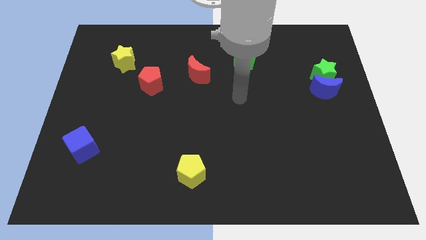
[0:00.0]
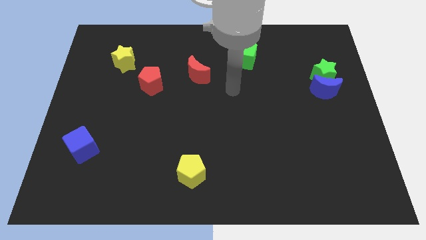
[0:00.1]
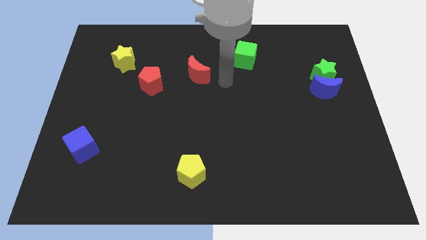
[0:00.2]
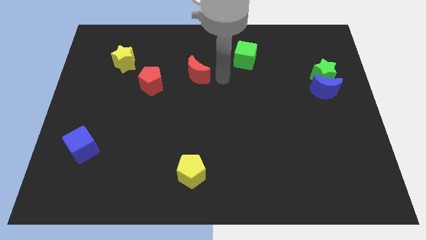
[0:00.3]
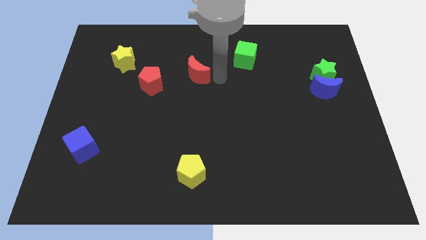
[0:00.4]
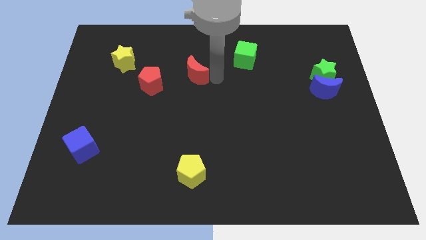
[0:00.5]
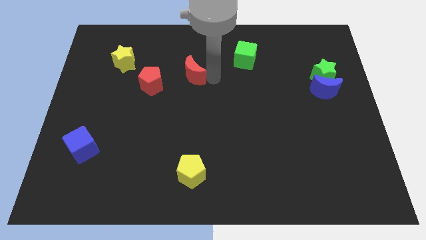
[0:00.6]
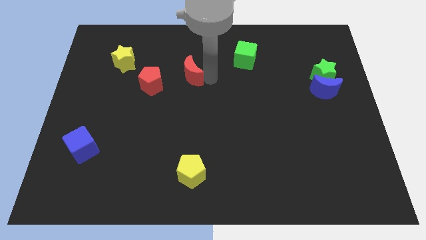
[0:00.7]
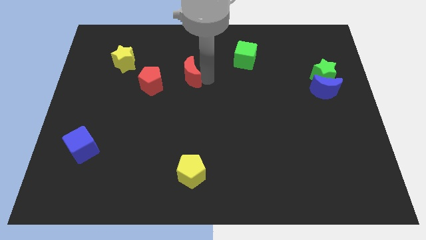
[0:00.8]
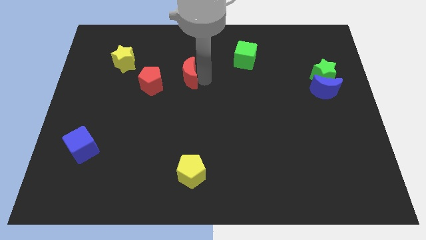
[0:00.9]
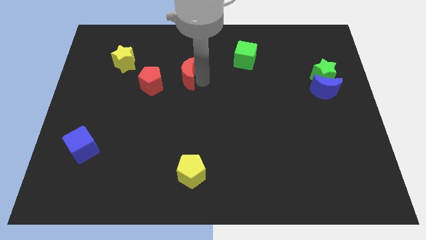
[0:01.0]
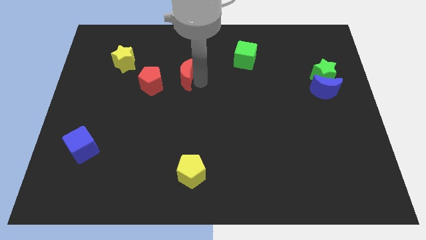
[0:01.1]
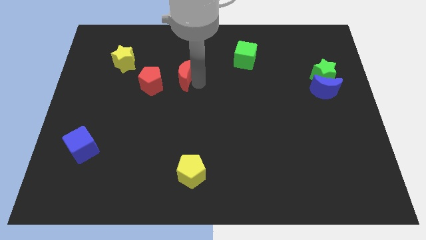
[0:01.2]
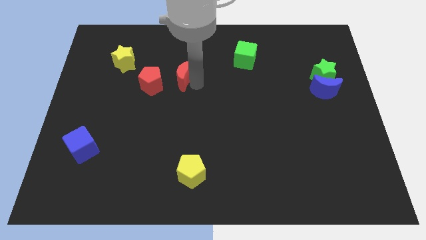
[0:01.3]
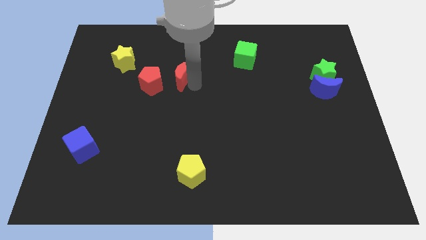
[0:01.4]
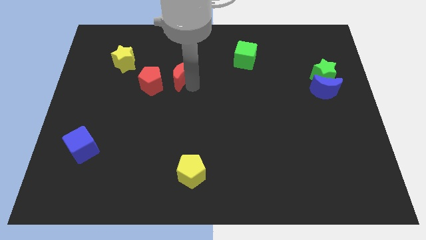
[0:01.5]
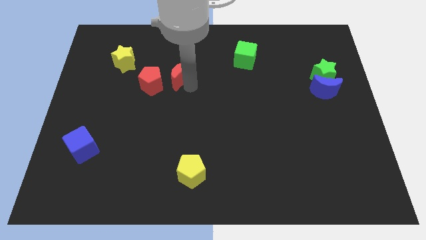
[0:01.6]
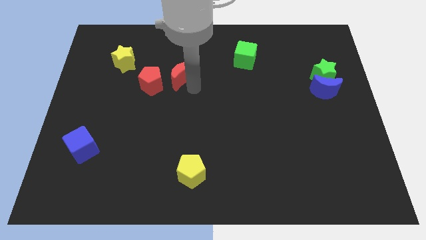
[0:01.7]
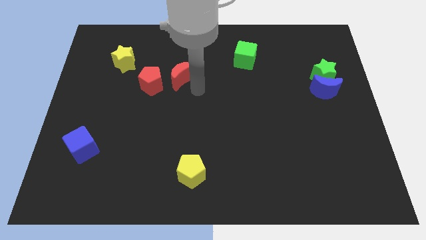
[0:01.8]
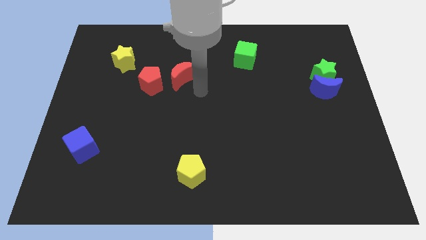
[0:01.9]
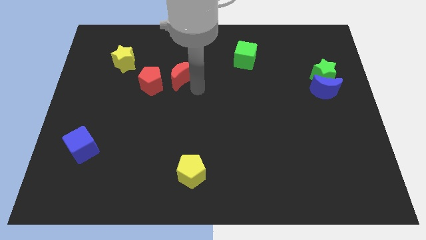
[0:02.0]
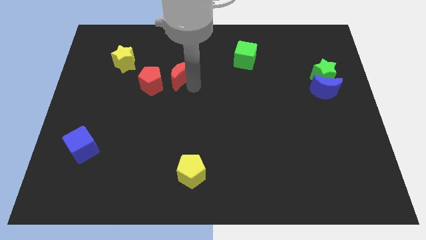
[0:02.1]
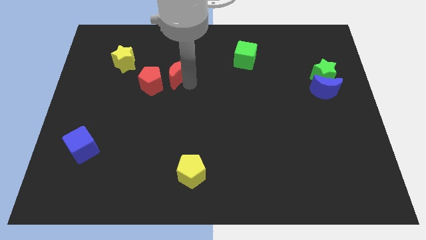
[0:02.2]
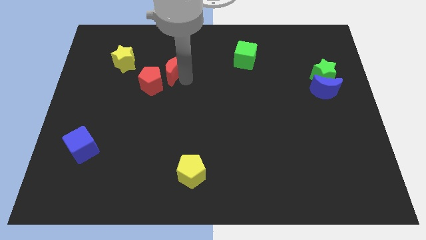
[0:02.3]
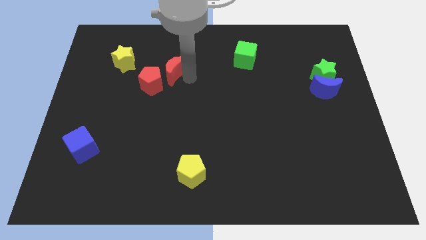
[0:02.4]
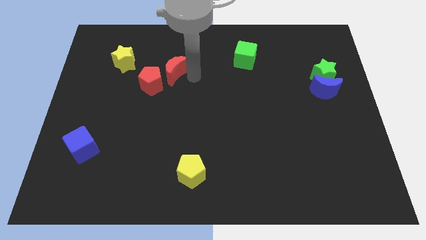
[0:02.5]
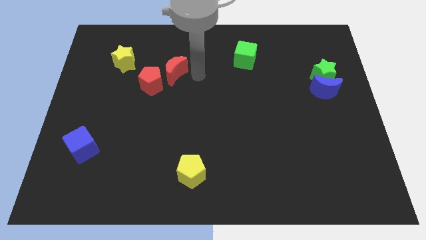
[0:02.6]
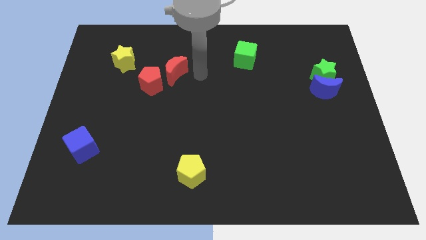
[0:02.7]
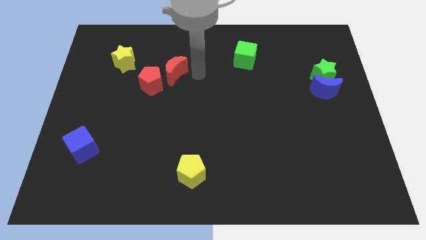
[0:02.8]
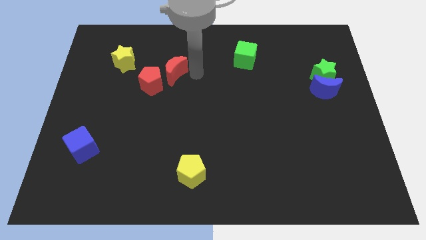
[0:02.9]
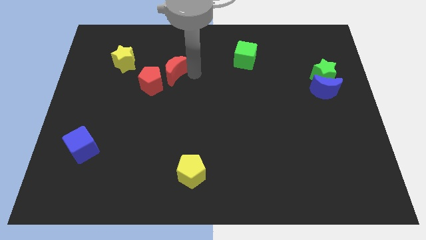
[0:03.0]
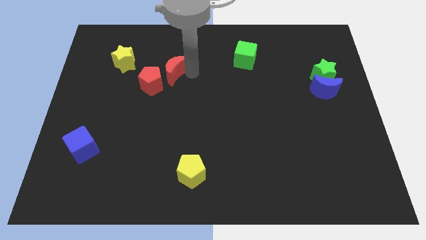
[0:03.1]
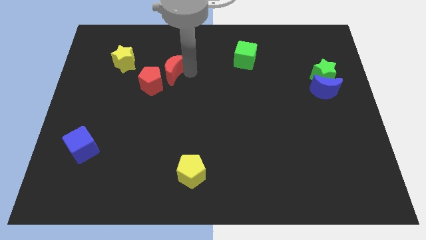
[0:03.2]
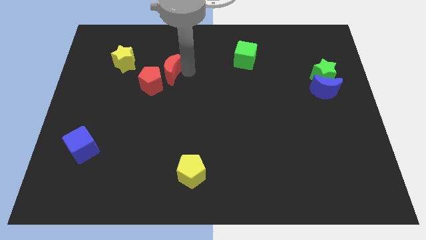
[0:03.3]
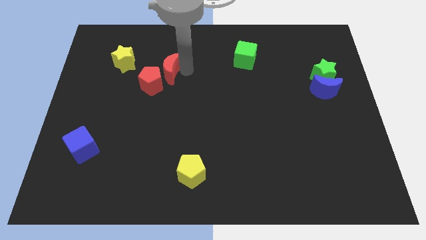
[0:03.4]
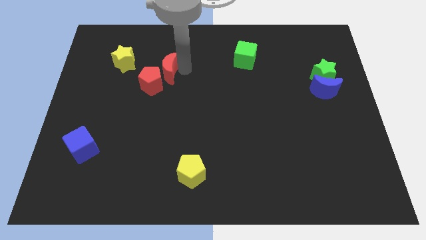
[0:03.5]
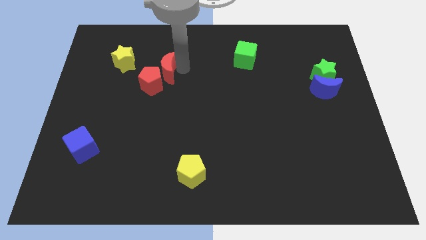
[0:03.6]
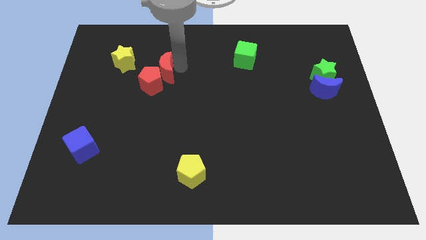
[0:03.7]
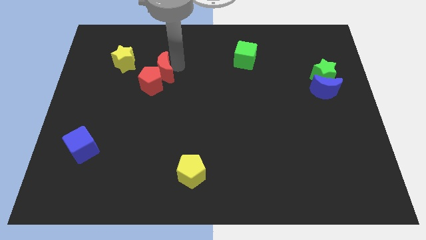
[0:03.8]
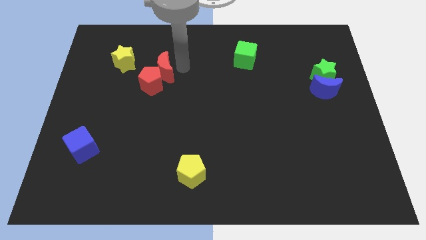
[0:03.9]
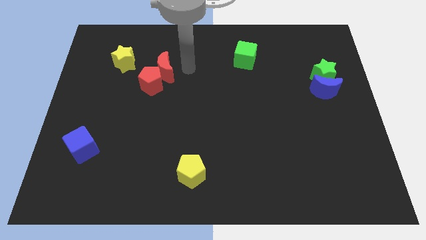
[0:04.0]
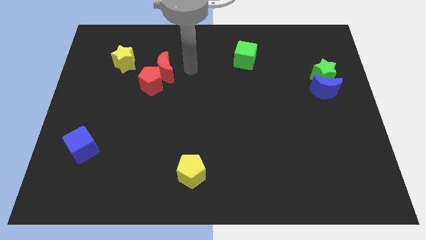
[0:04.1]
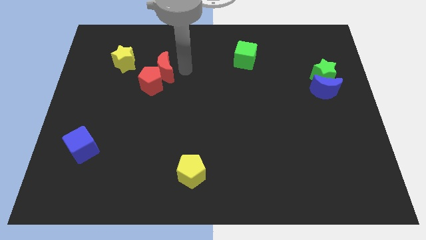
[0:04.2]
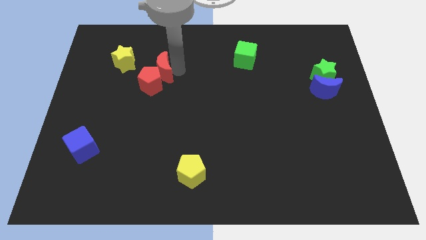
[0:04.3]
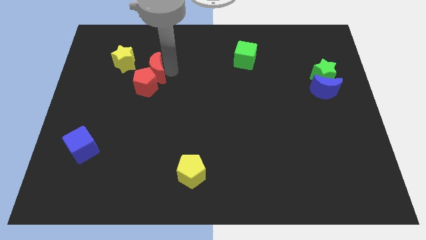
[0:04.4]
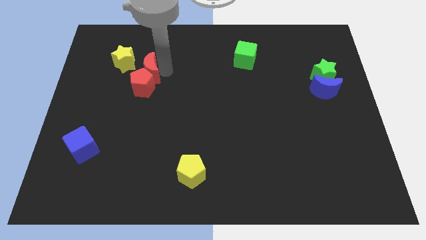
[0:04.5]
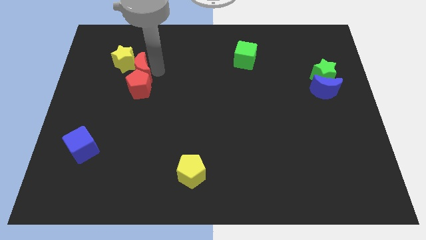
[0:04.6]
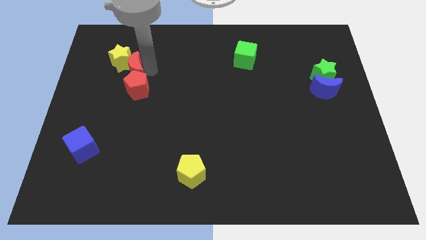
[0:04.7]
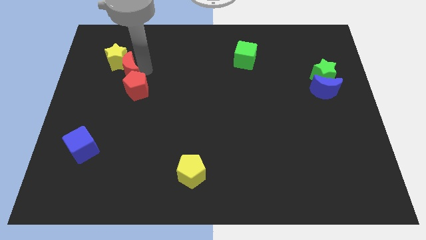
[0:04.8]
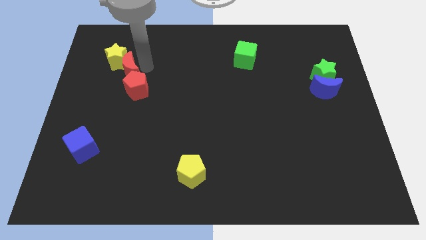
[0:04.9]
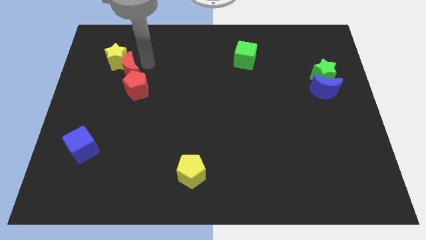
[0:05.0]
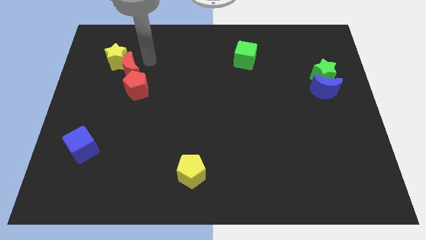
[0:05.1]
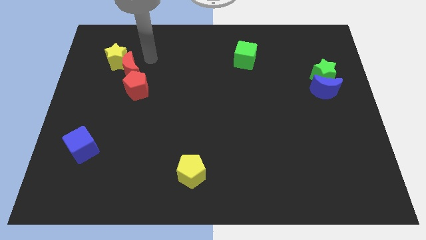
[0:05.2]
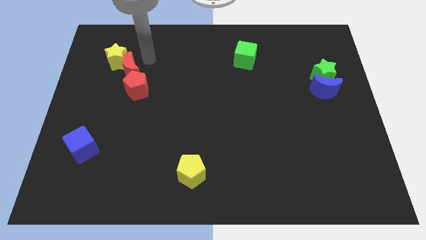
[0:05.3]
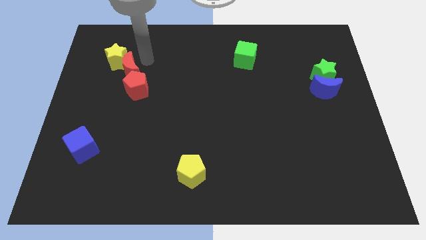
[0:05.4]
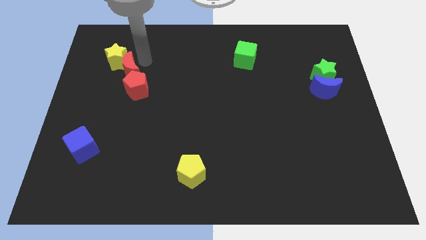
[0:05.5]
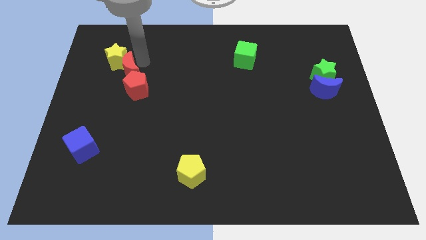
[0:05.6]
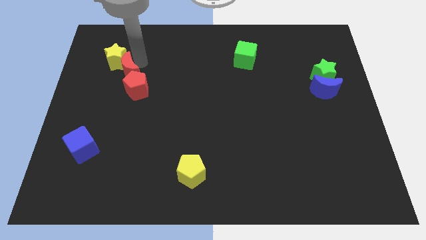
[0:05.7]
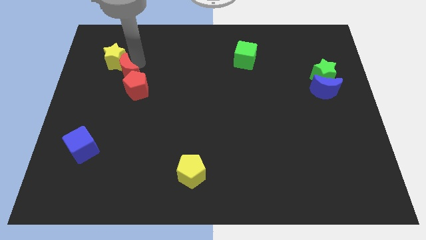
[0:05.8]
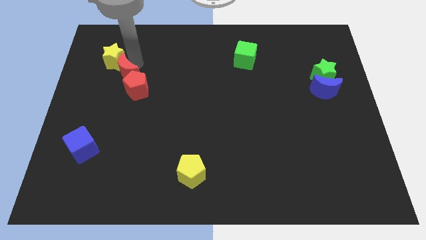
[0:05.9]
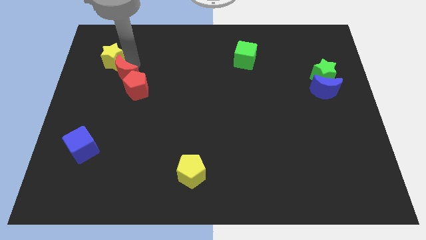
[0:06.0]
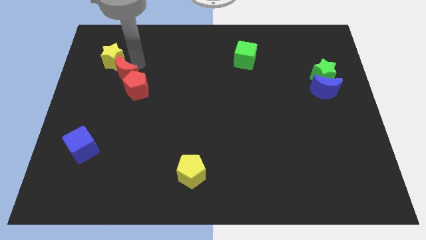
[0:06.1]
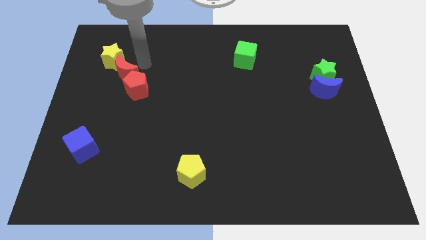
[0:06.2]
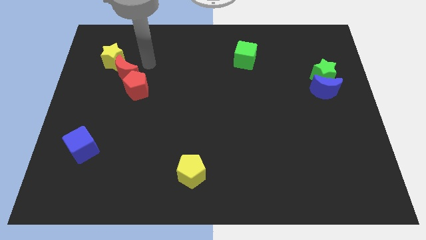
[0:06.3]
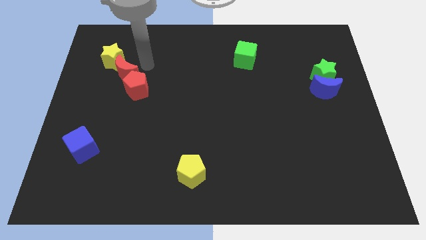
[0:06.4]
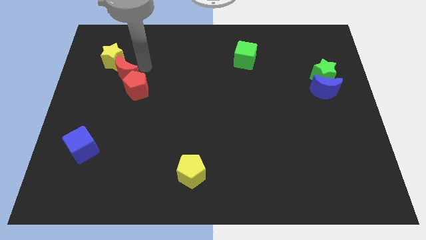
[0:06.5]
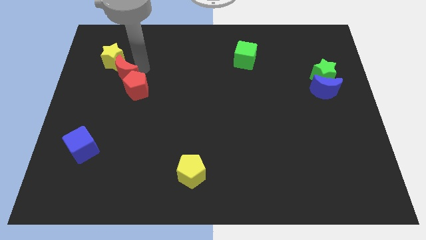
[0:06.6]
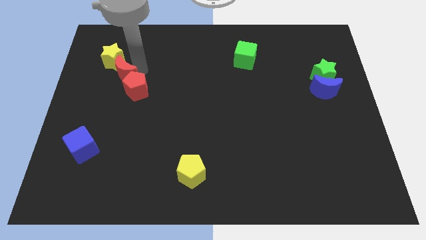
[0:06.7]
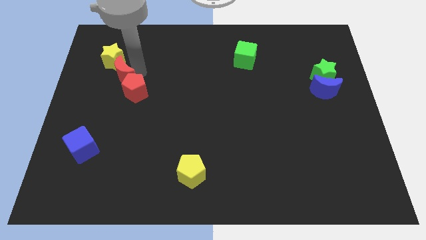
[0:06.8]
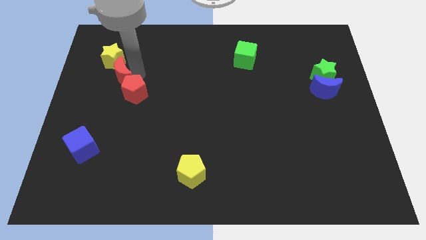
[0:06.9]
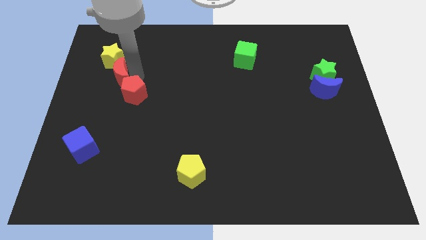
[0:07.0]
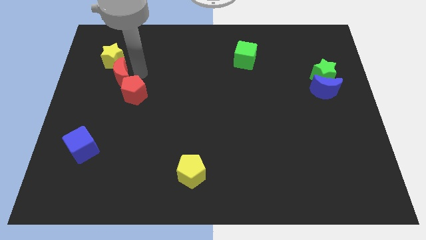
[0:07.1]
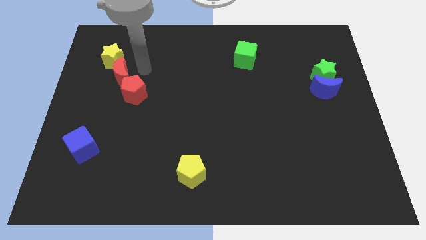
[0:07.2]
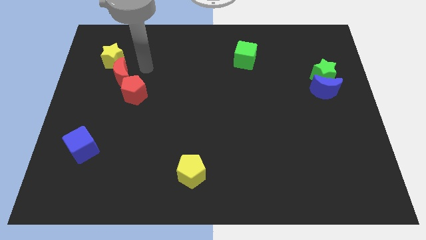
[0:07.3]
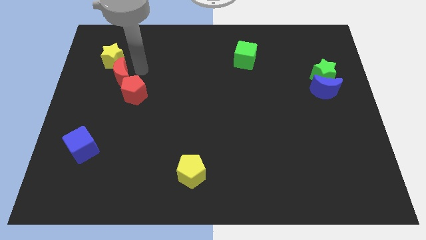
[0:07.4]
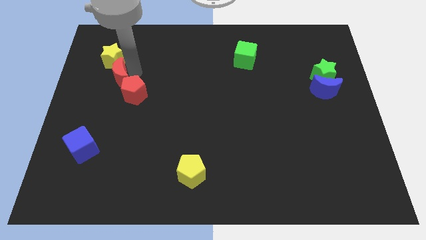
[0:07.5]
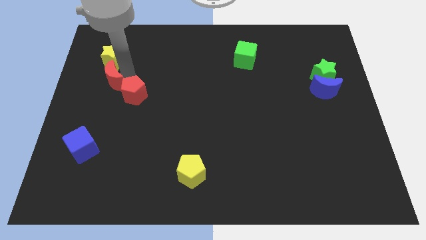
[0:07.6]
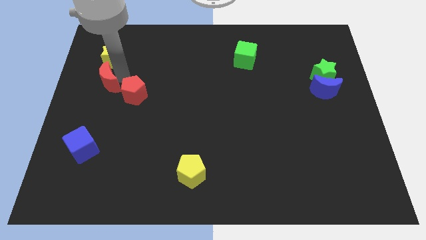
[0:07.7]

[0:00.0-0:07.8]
move the red moon to the left side of the board
